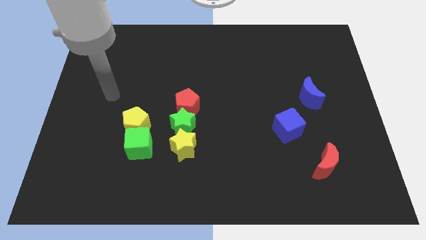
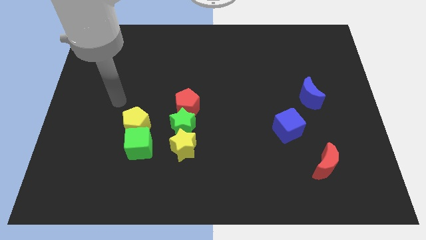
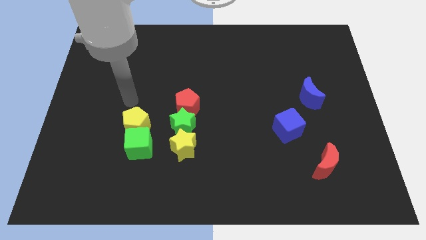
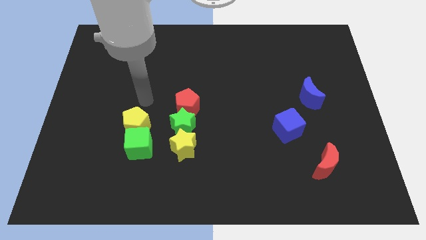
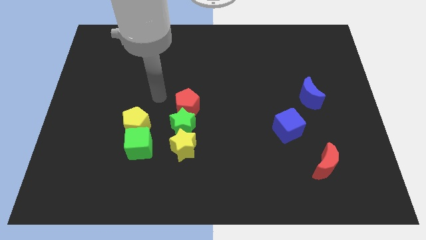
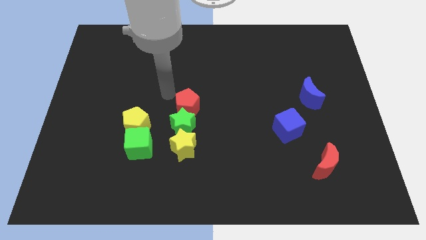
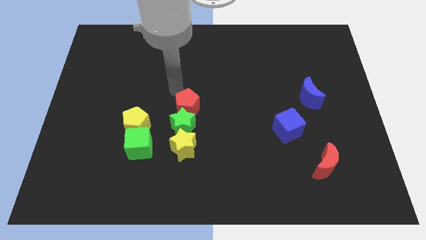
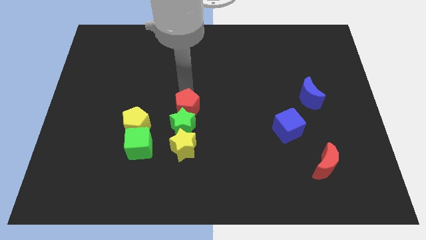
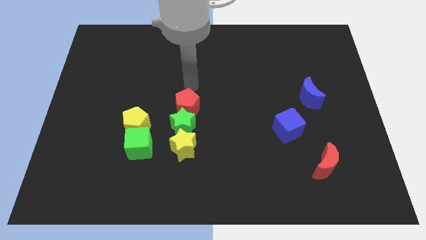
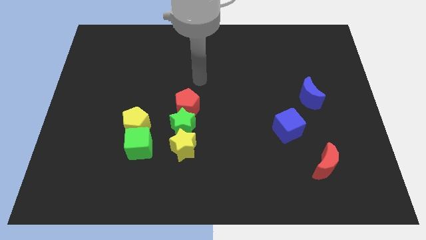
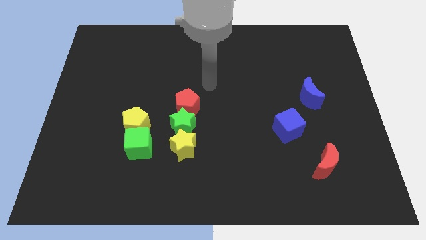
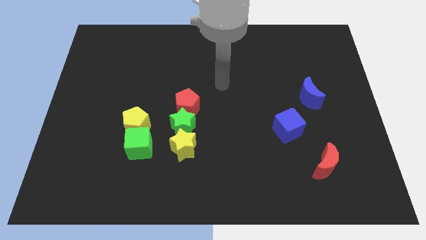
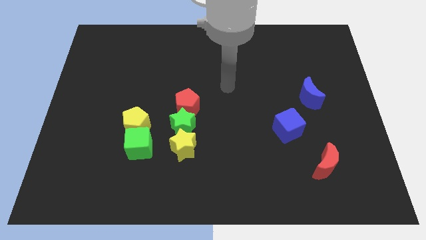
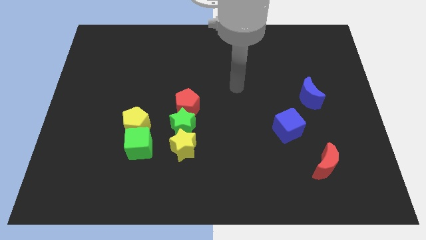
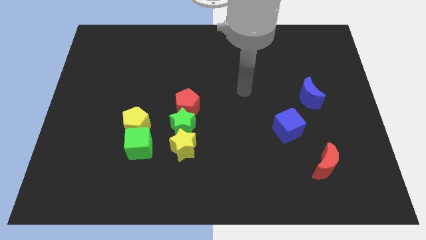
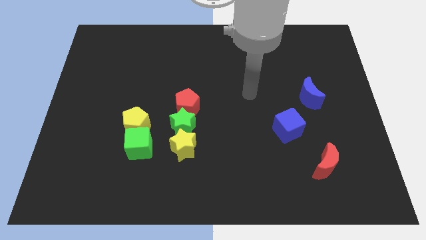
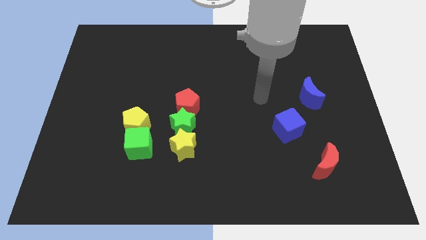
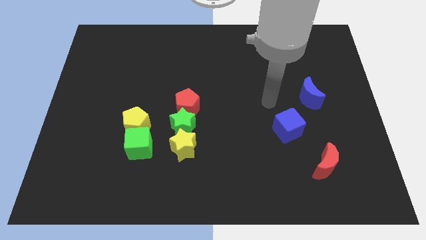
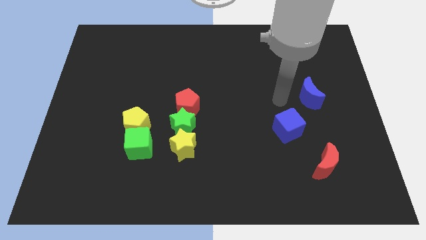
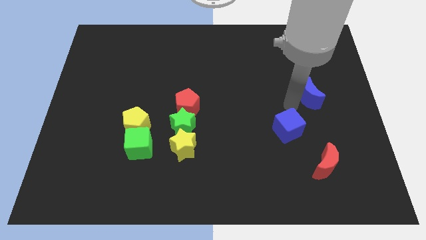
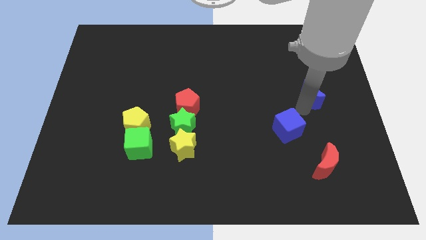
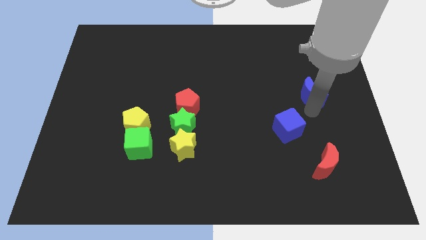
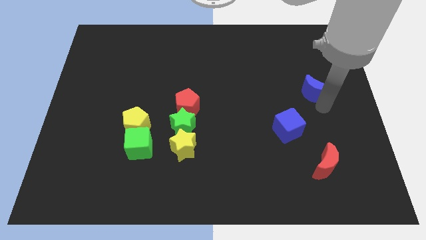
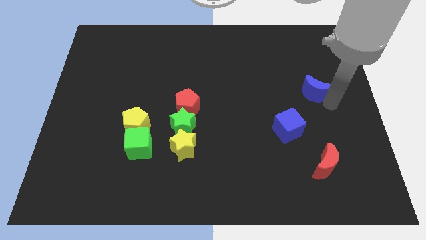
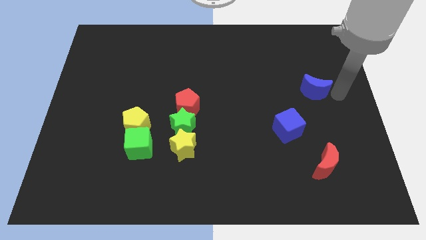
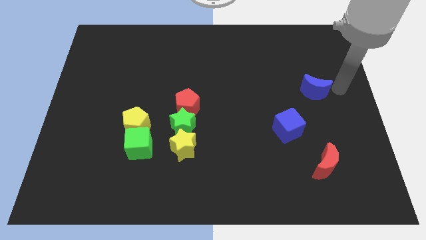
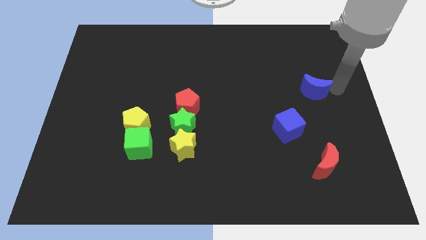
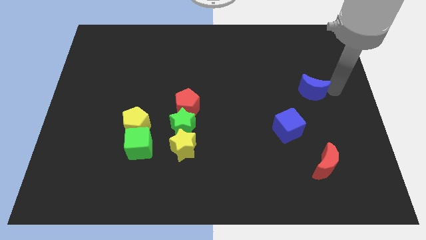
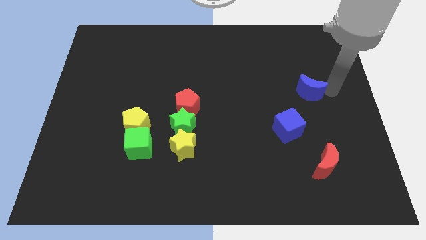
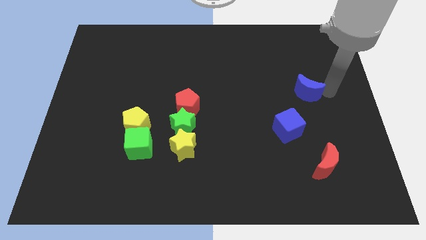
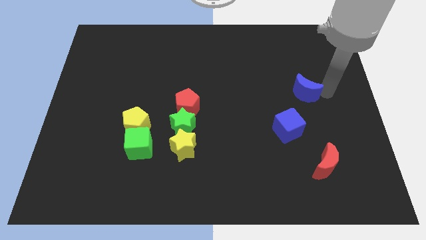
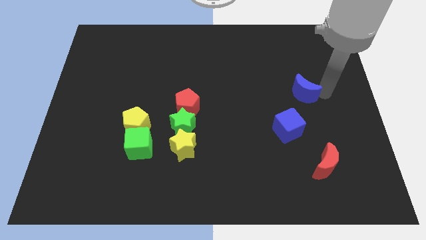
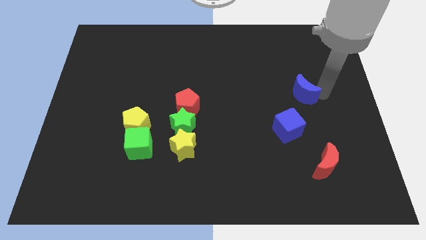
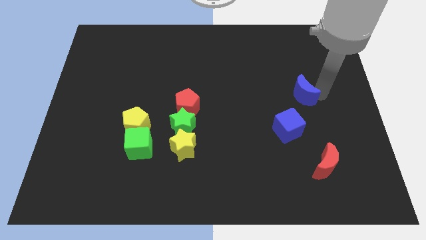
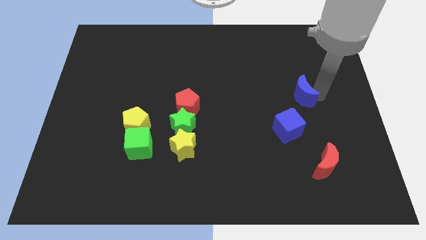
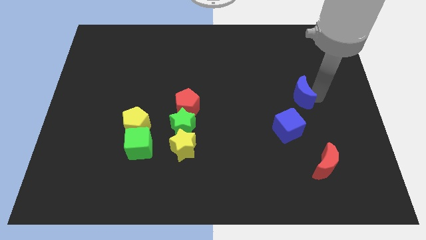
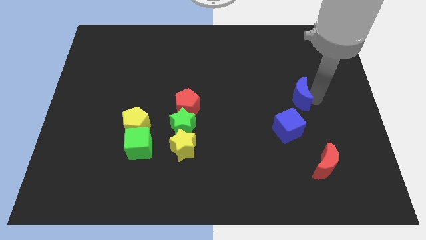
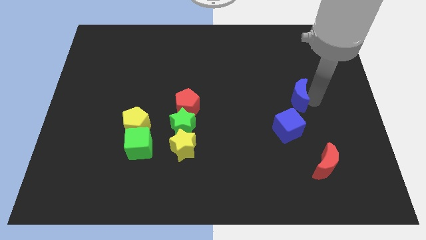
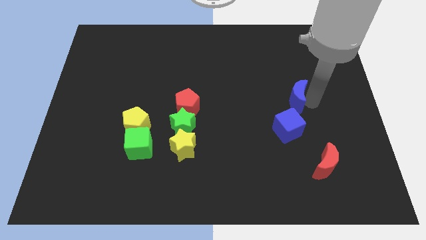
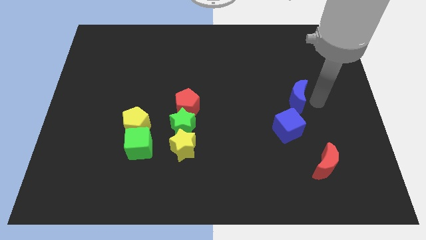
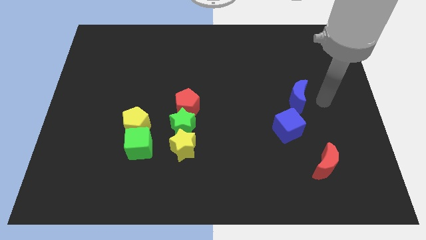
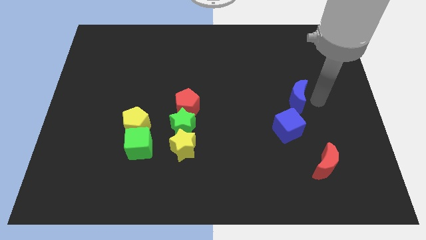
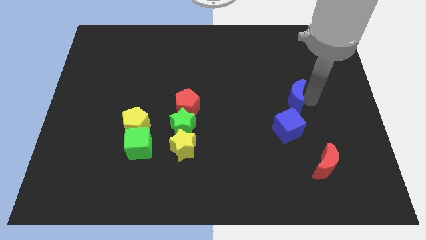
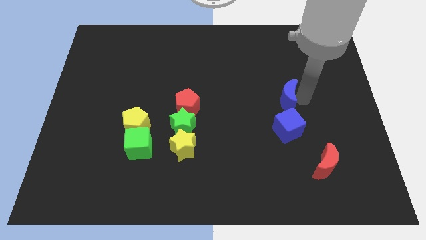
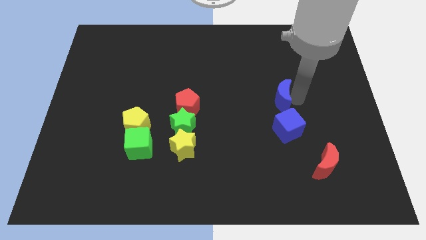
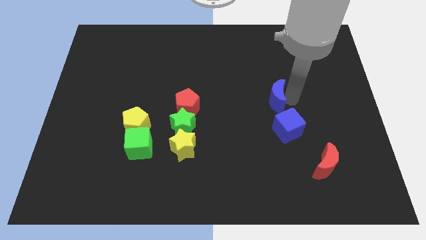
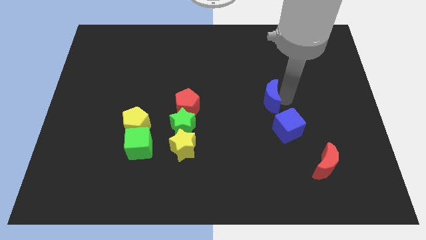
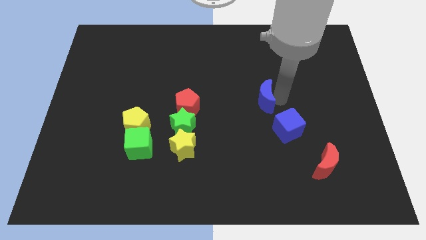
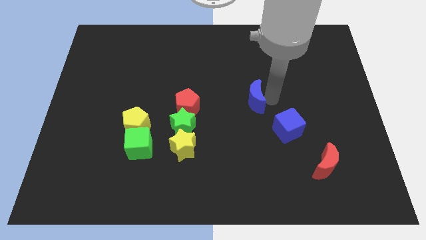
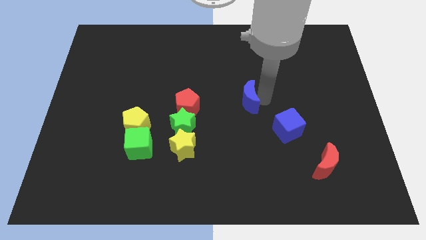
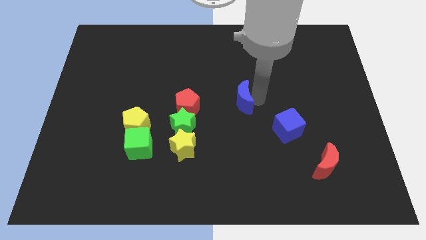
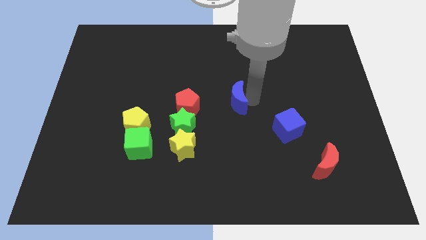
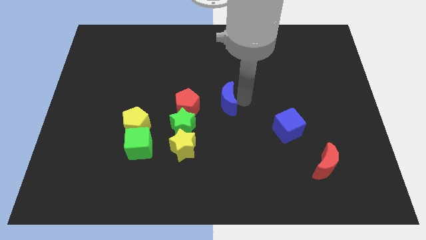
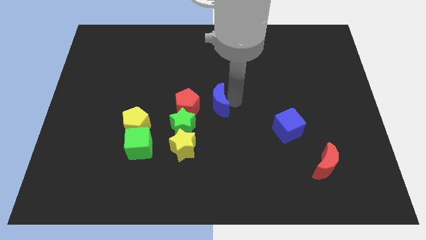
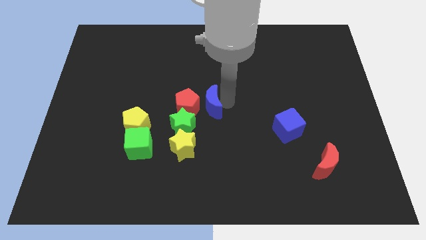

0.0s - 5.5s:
push the blue moon close to the red pentagon

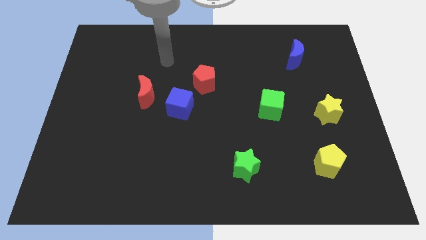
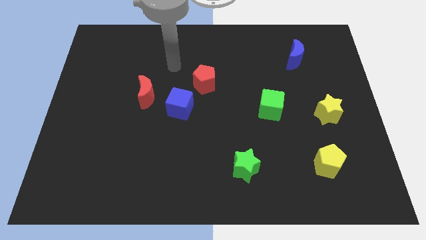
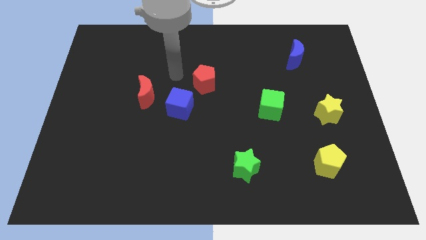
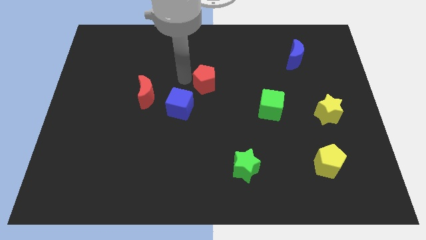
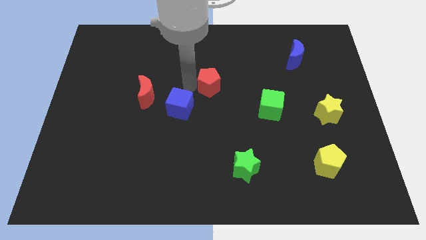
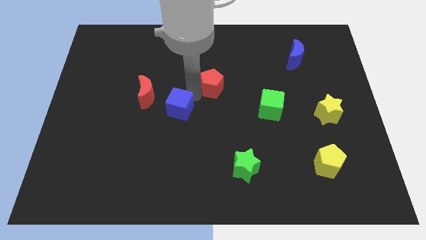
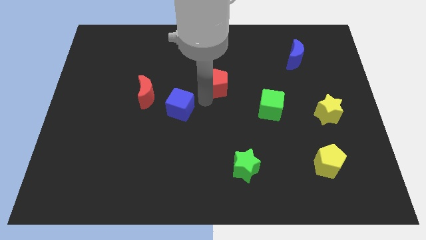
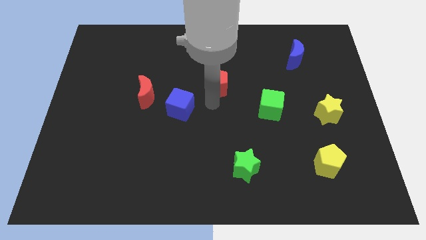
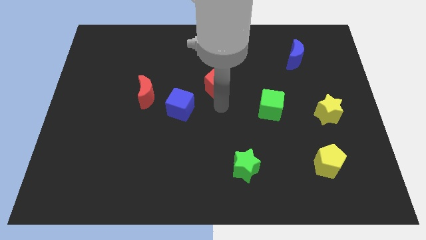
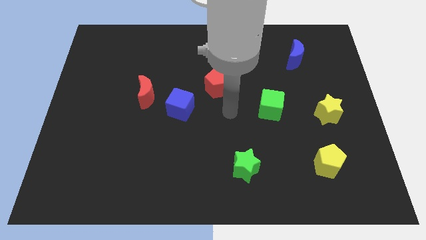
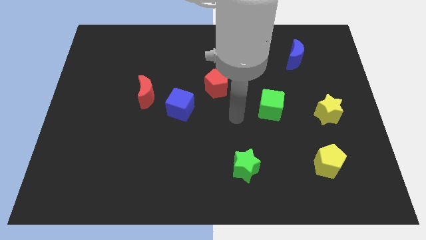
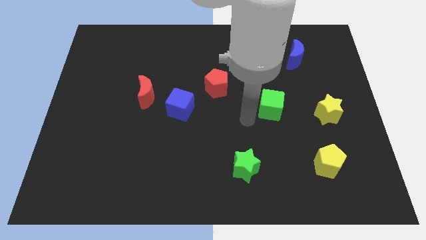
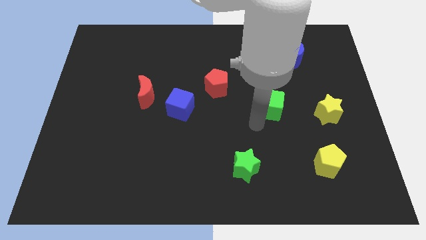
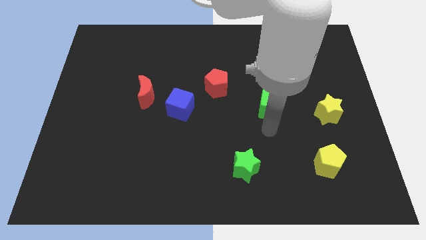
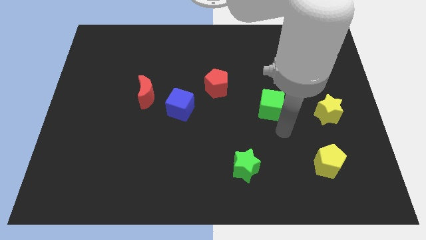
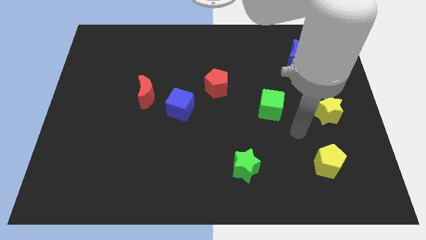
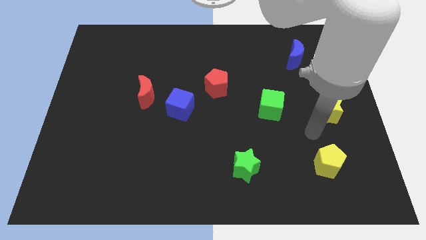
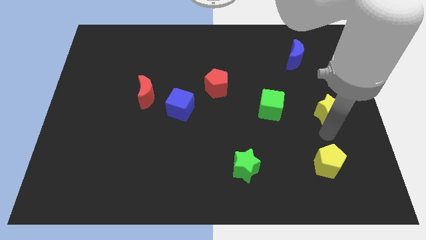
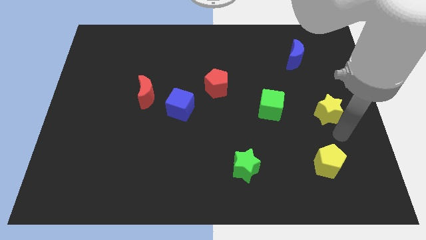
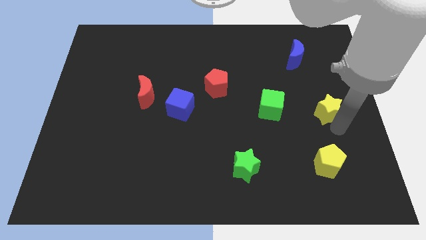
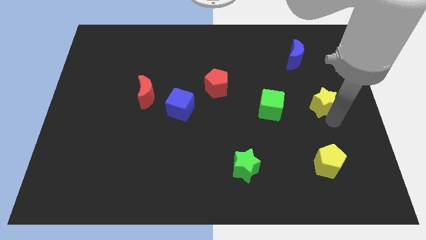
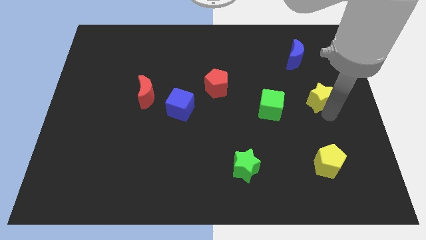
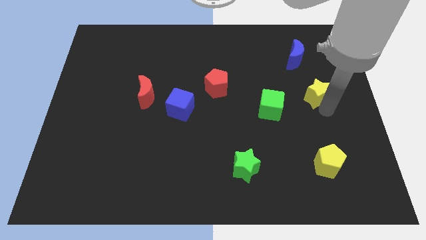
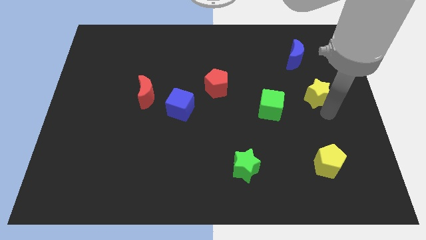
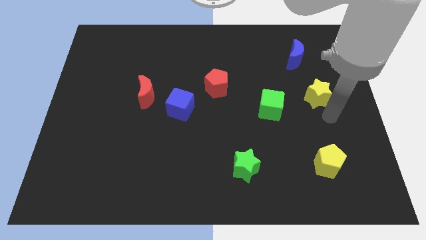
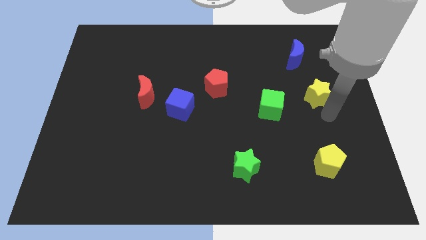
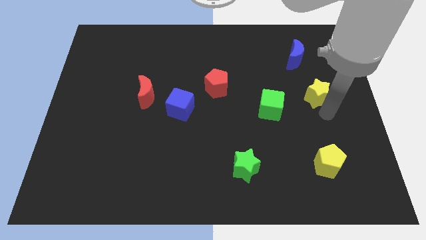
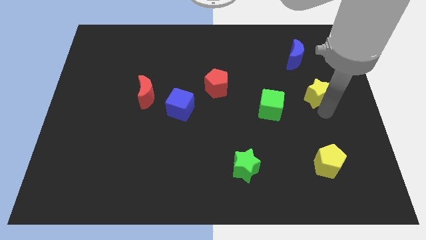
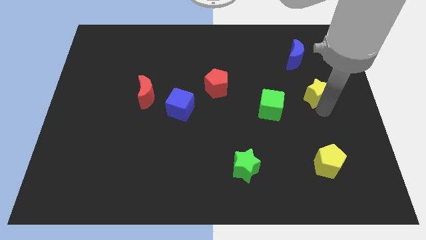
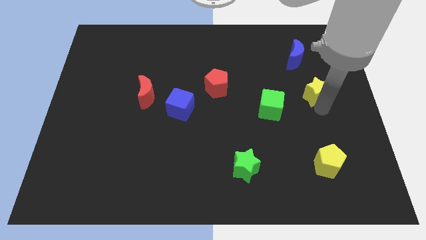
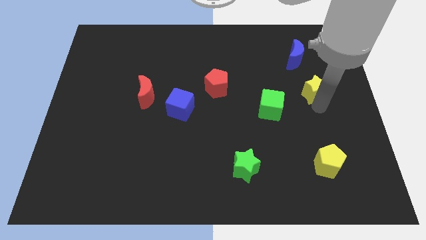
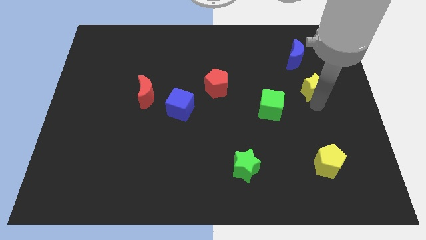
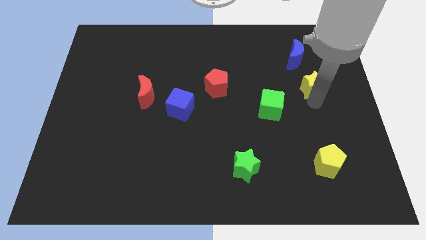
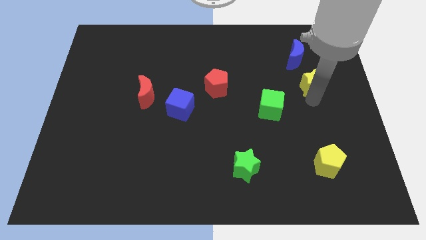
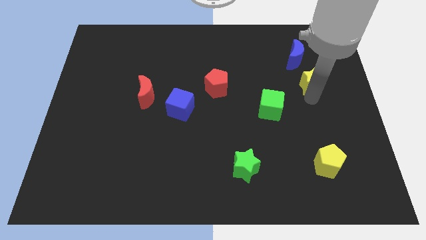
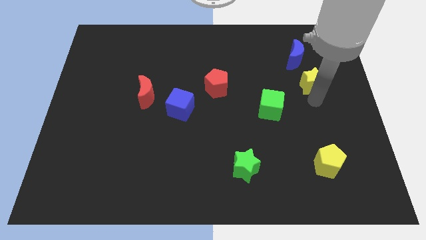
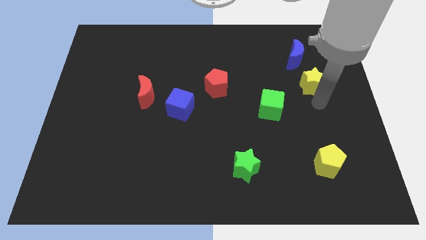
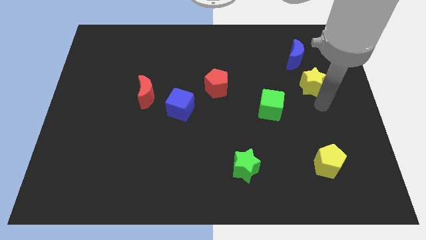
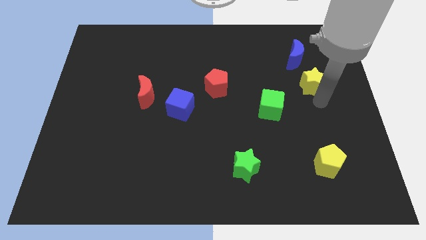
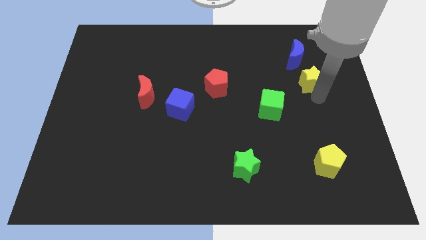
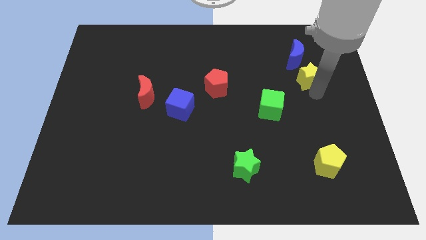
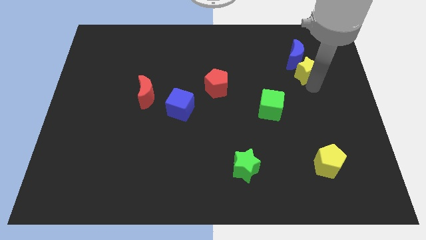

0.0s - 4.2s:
slide the yellow star to the blue moon
